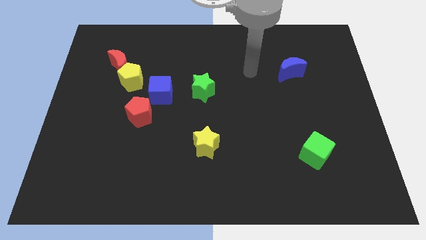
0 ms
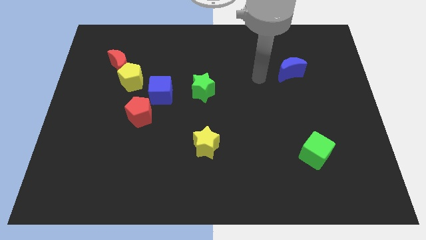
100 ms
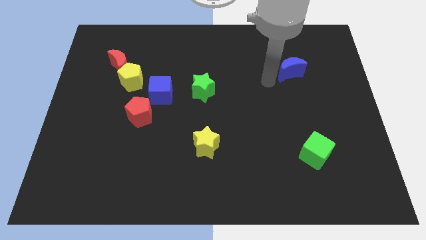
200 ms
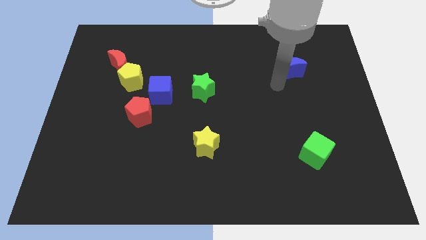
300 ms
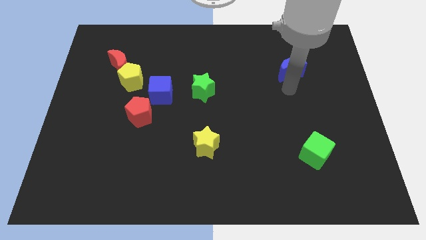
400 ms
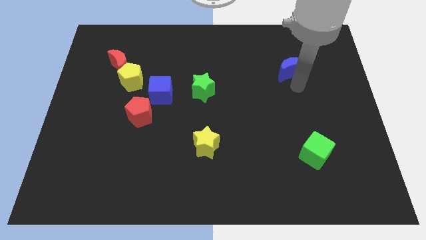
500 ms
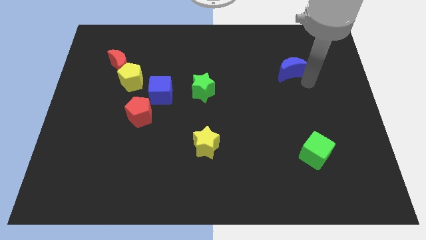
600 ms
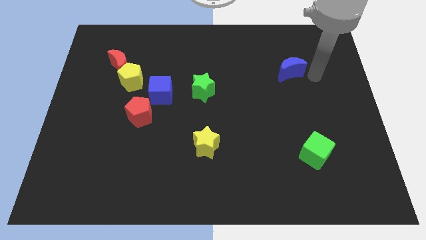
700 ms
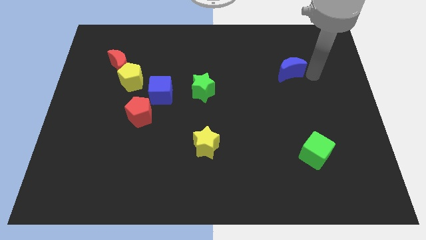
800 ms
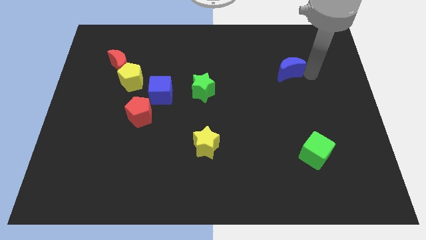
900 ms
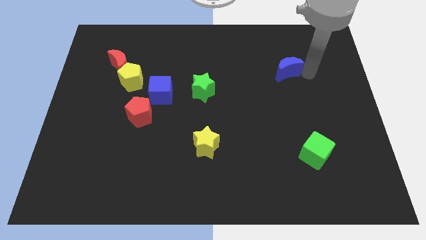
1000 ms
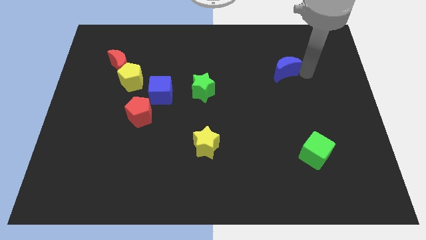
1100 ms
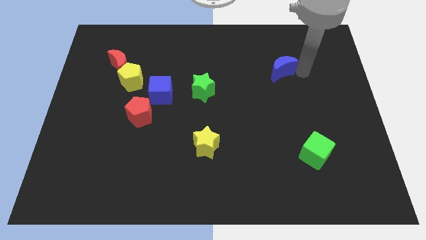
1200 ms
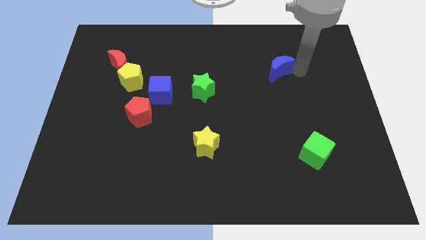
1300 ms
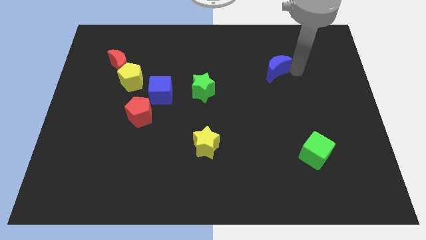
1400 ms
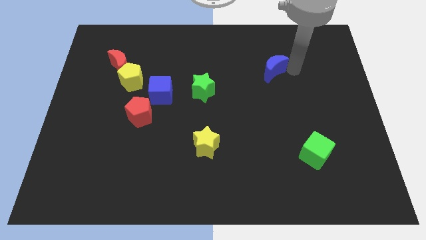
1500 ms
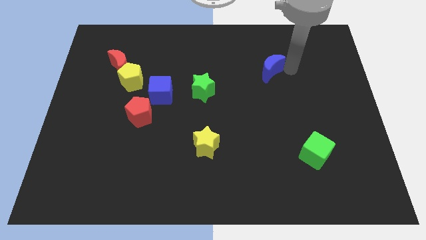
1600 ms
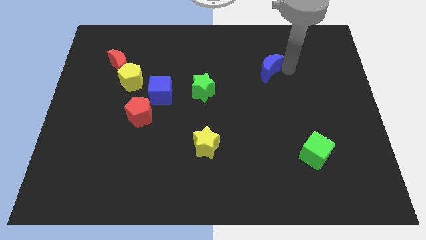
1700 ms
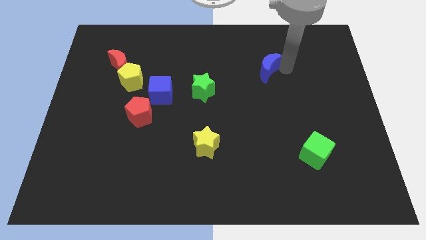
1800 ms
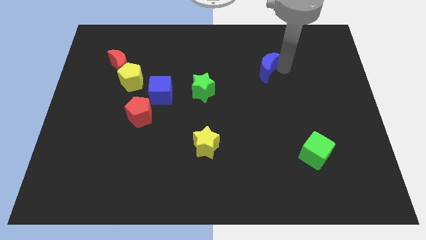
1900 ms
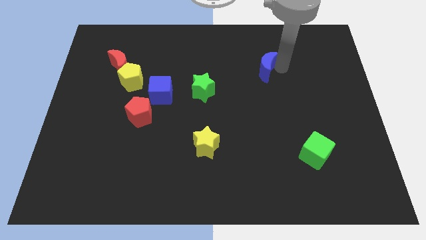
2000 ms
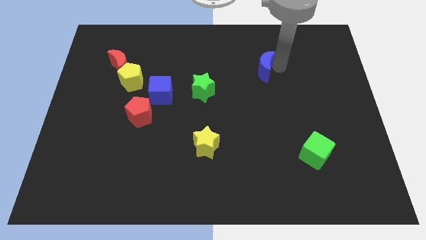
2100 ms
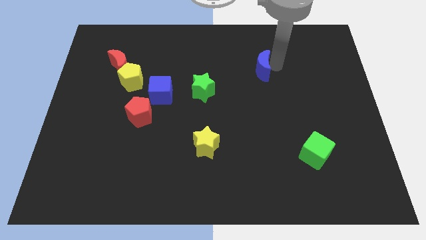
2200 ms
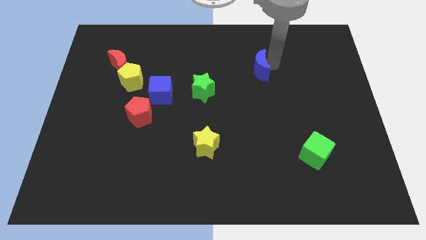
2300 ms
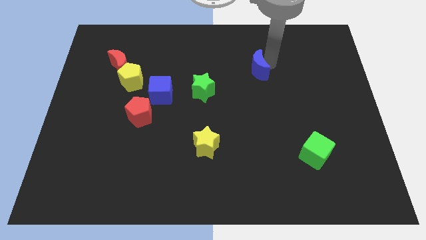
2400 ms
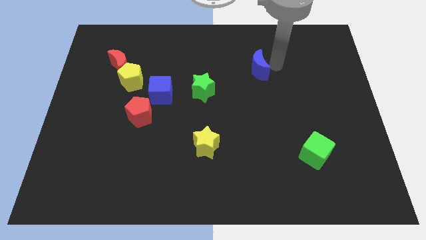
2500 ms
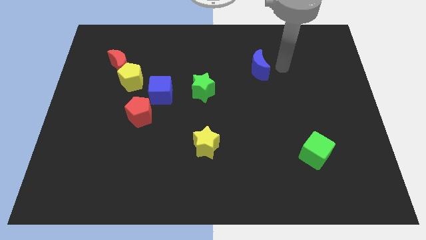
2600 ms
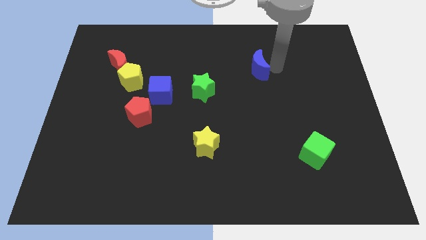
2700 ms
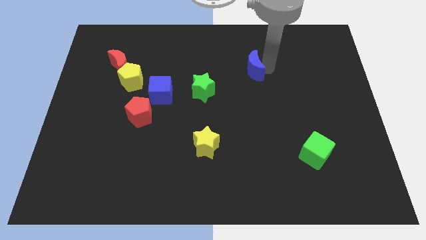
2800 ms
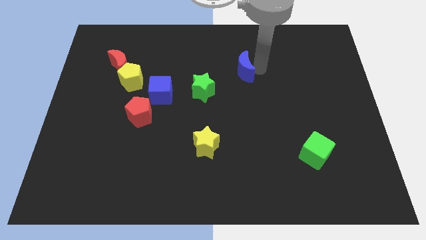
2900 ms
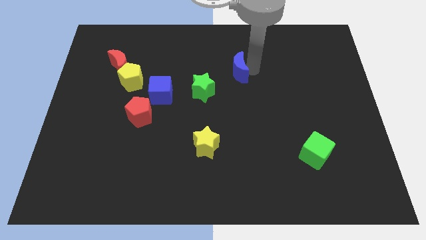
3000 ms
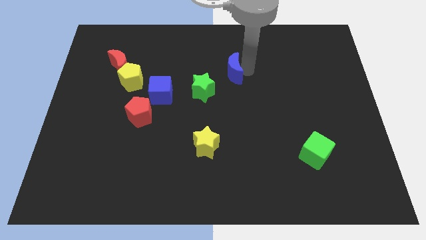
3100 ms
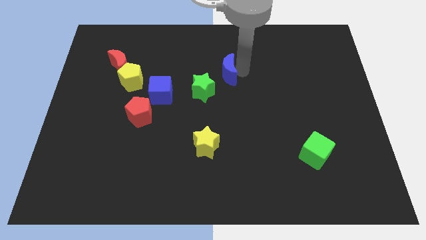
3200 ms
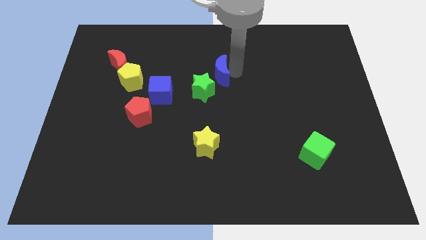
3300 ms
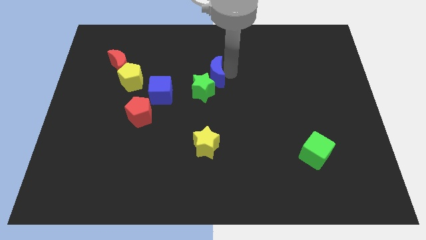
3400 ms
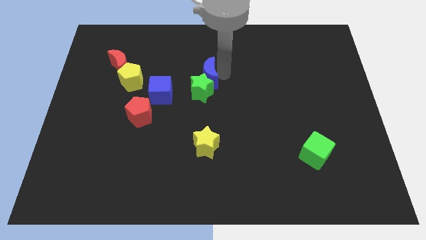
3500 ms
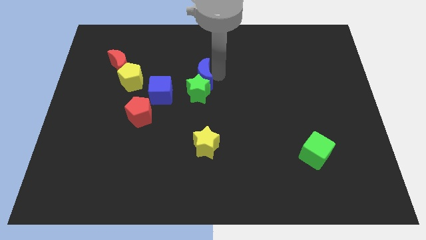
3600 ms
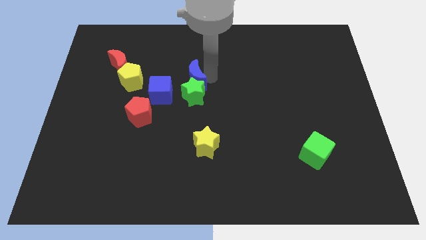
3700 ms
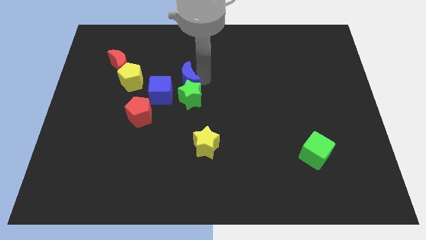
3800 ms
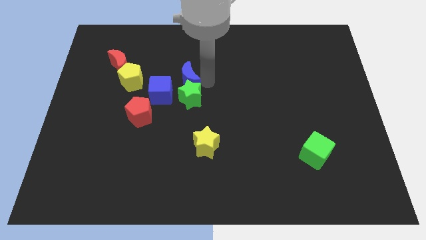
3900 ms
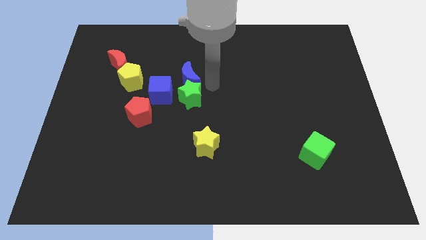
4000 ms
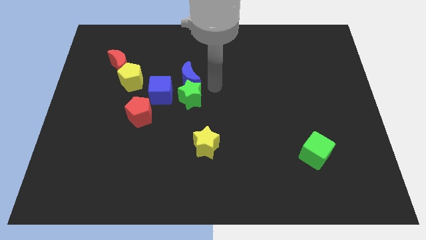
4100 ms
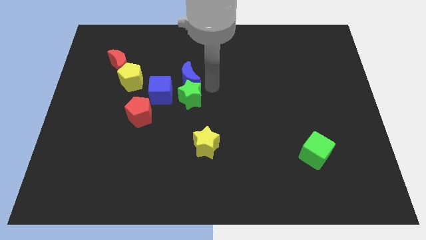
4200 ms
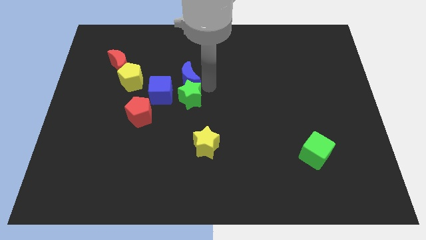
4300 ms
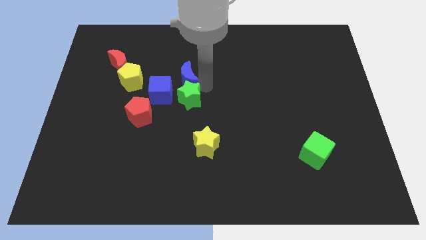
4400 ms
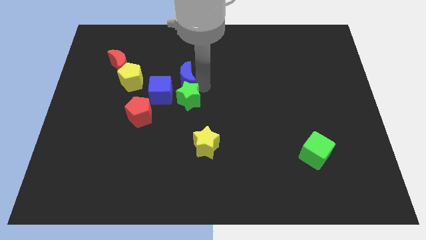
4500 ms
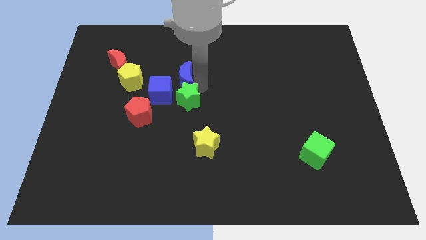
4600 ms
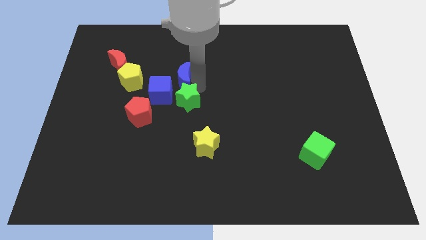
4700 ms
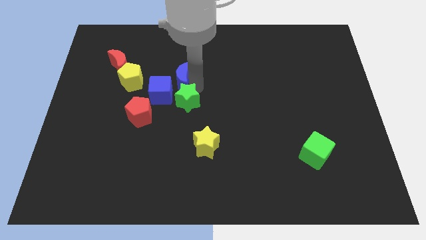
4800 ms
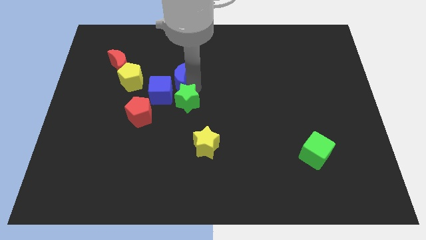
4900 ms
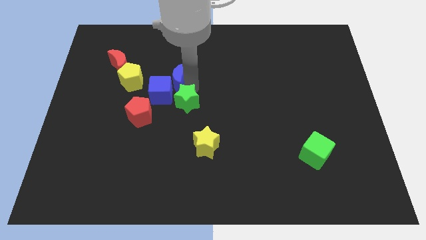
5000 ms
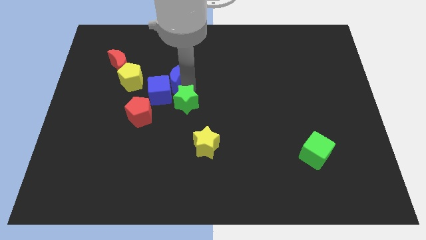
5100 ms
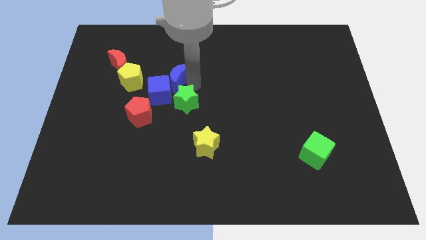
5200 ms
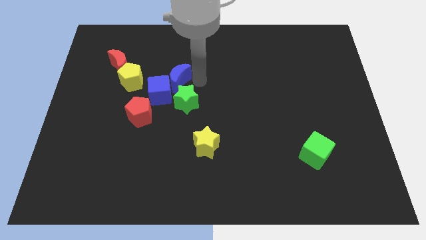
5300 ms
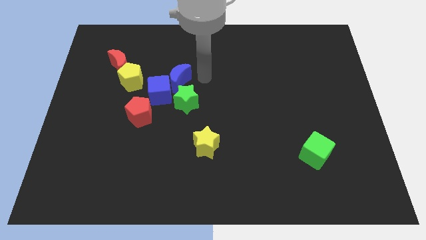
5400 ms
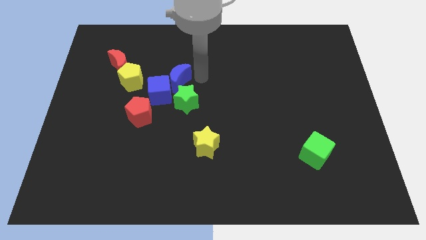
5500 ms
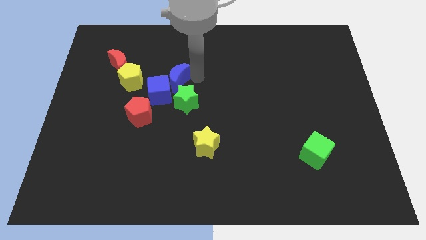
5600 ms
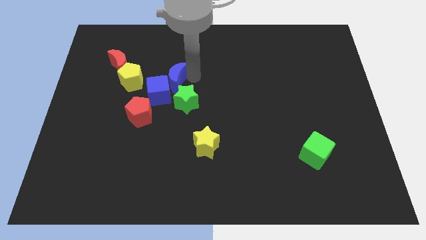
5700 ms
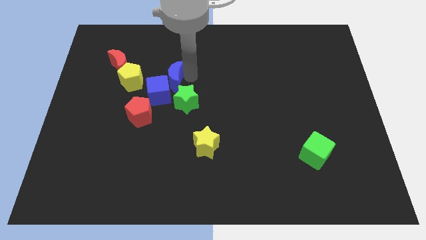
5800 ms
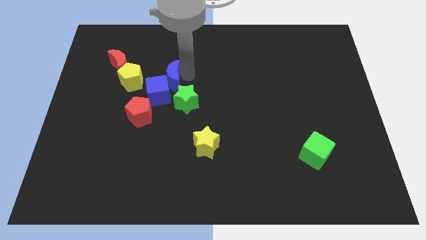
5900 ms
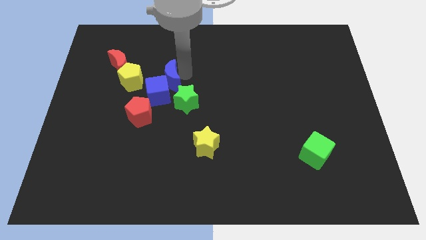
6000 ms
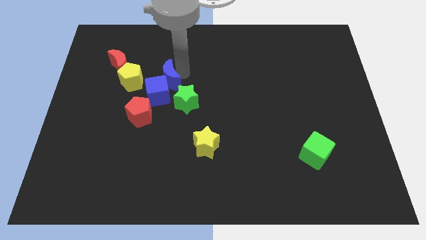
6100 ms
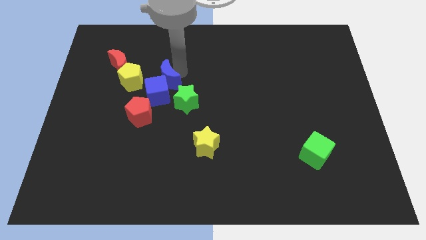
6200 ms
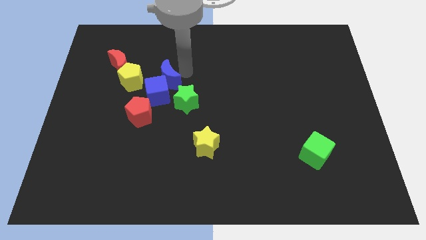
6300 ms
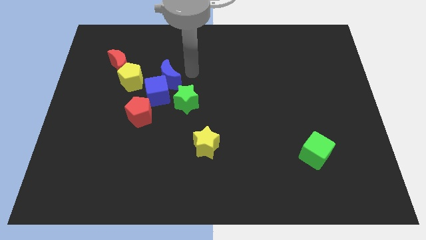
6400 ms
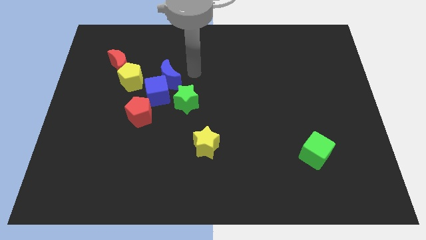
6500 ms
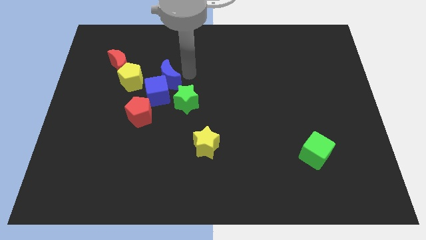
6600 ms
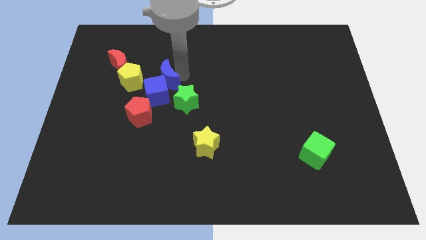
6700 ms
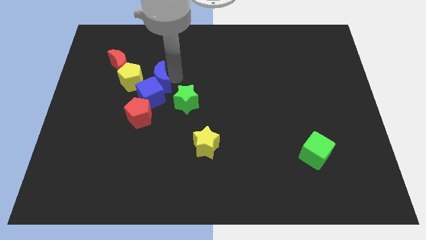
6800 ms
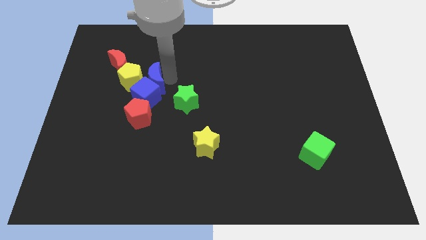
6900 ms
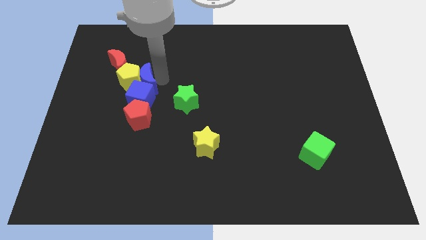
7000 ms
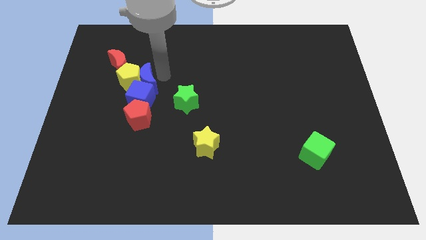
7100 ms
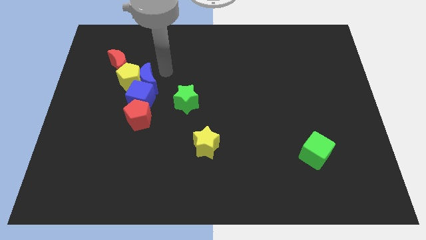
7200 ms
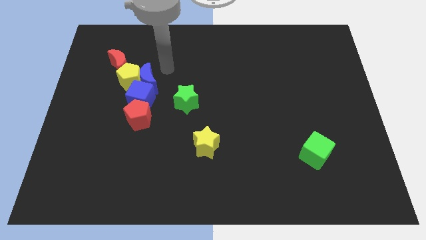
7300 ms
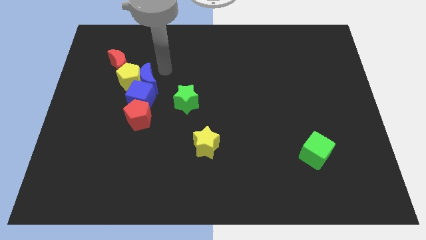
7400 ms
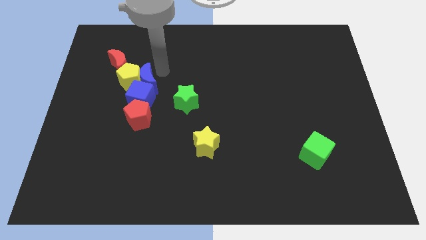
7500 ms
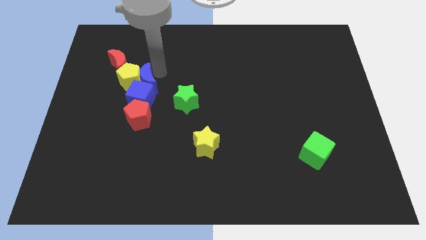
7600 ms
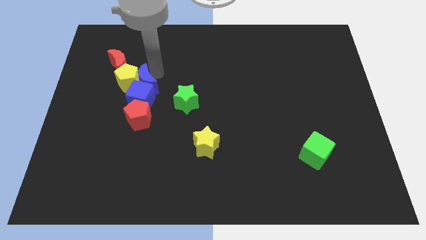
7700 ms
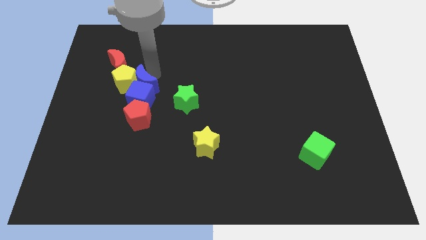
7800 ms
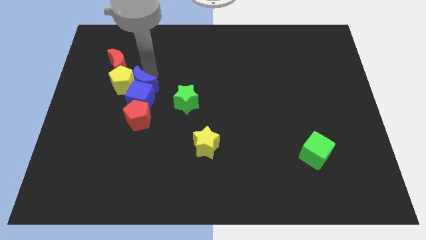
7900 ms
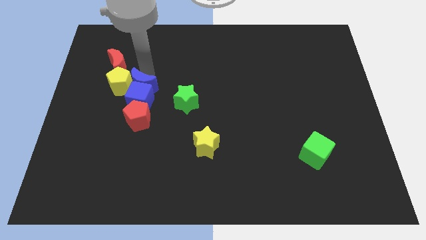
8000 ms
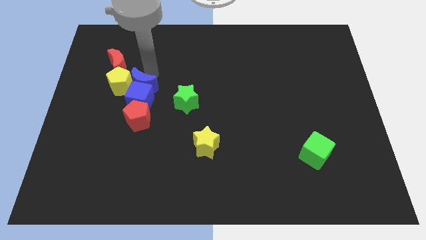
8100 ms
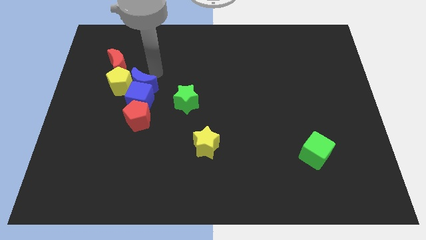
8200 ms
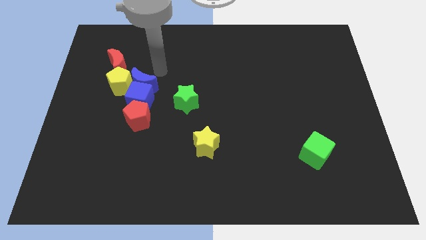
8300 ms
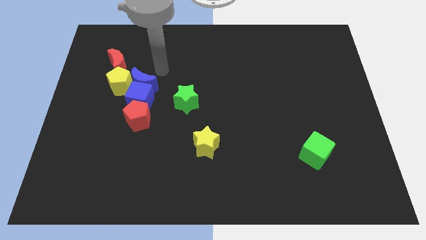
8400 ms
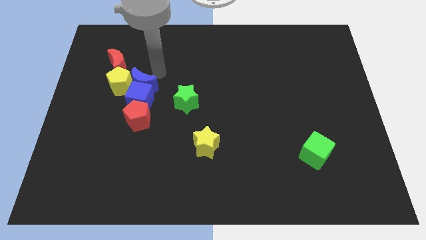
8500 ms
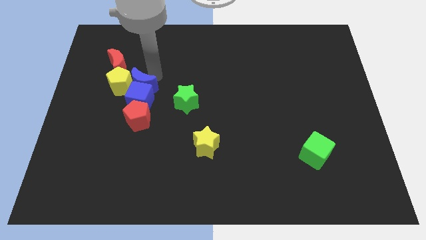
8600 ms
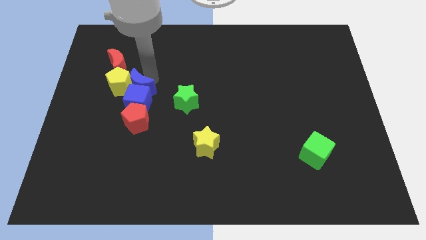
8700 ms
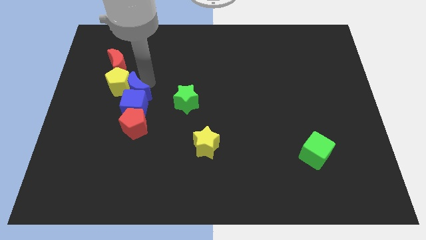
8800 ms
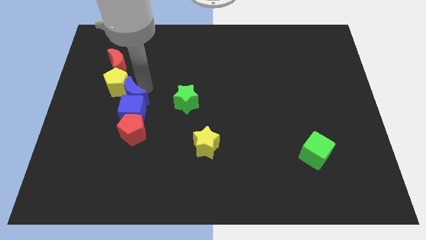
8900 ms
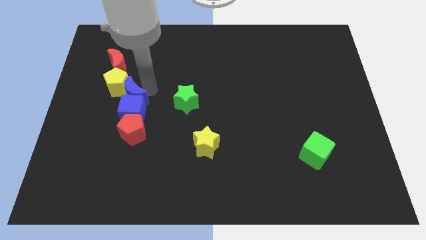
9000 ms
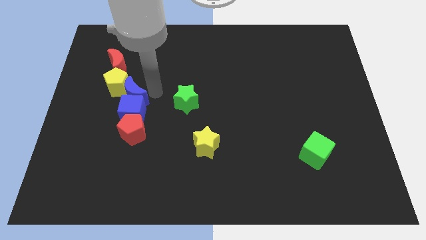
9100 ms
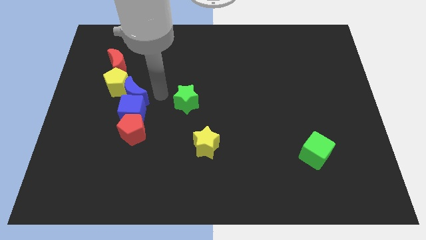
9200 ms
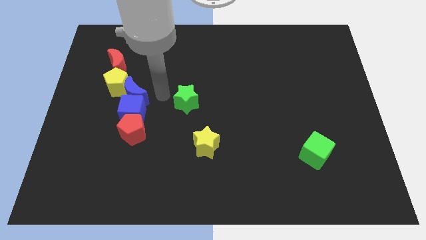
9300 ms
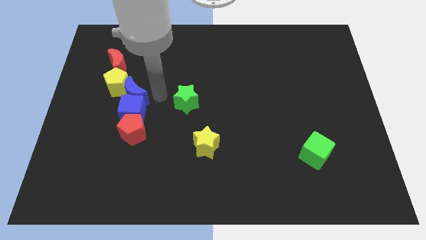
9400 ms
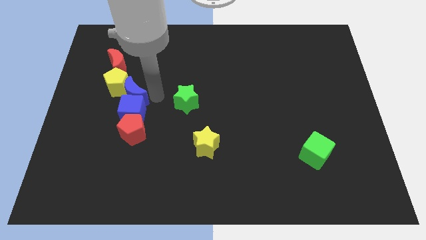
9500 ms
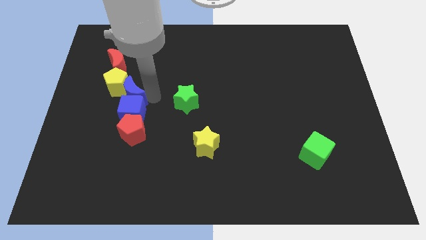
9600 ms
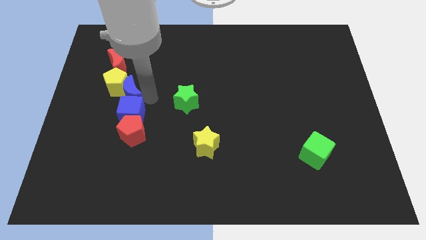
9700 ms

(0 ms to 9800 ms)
put the blue moon to the bottom of the red moon
